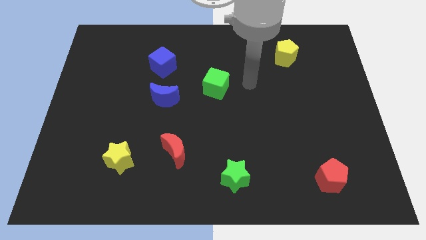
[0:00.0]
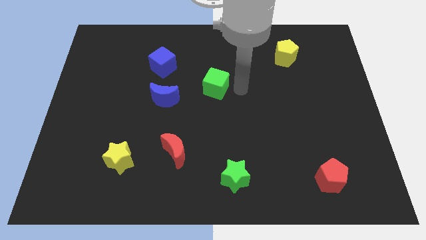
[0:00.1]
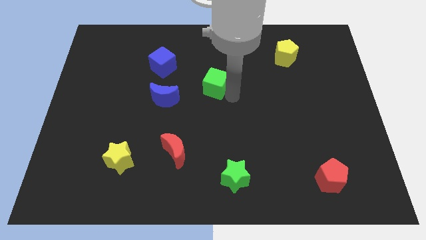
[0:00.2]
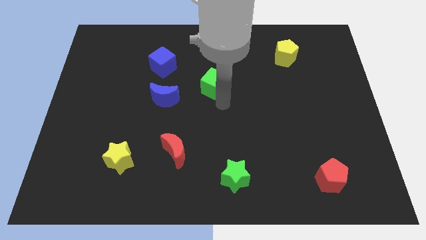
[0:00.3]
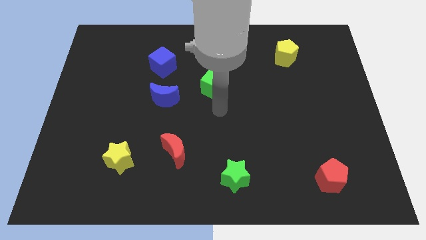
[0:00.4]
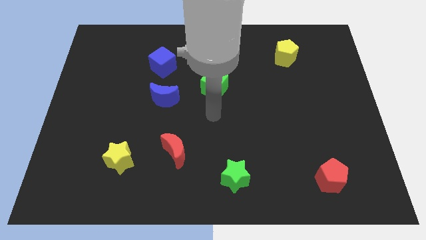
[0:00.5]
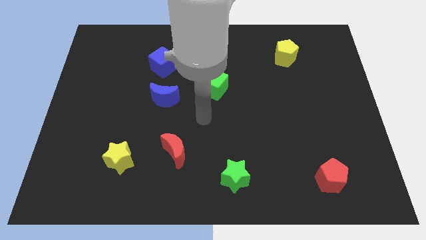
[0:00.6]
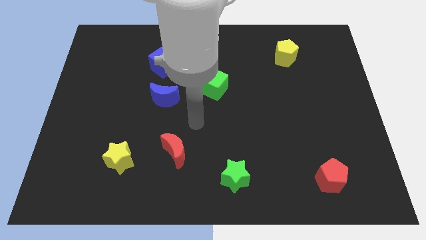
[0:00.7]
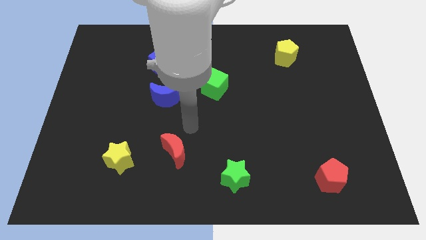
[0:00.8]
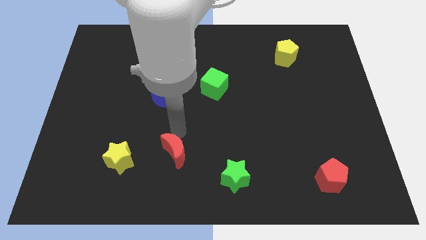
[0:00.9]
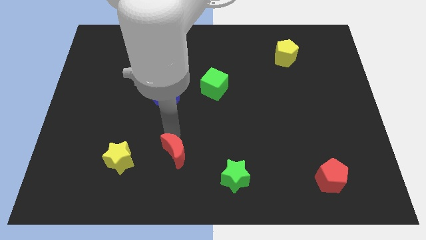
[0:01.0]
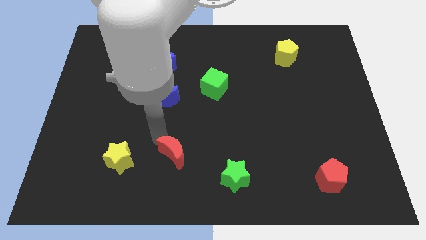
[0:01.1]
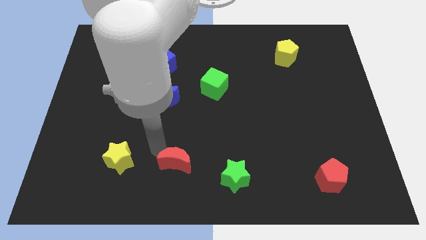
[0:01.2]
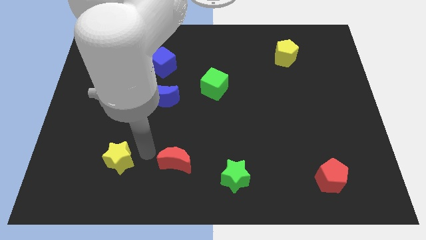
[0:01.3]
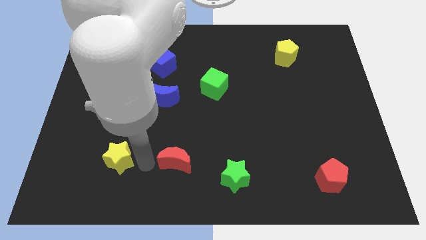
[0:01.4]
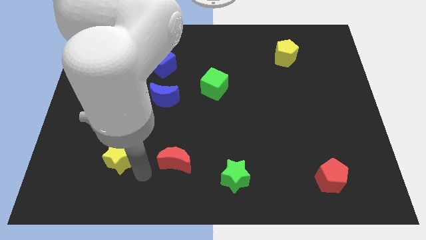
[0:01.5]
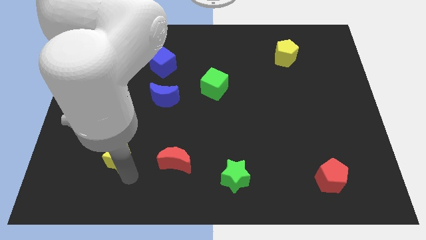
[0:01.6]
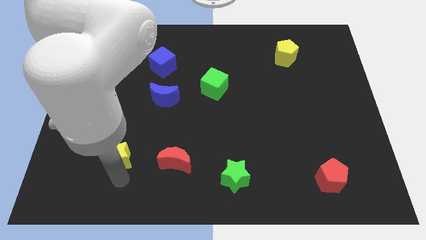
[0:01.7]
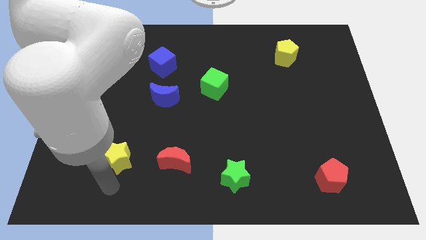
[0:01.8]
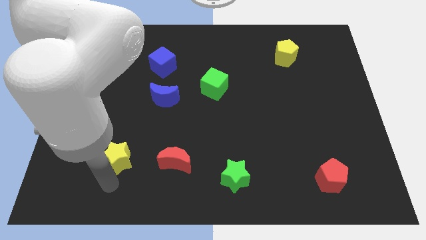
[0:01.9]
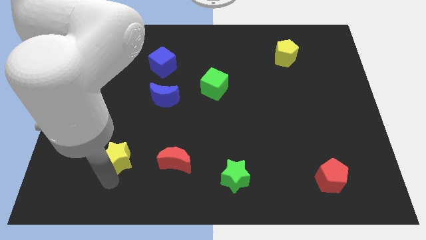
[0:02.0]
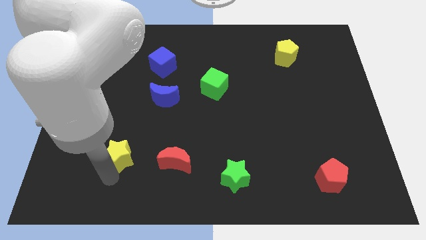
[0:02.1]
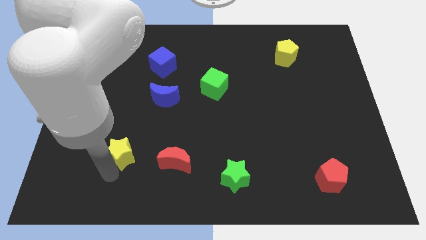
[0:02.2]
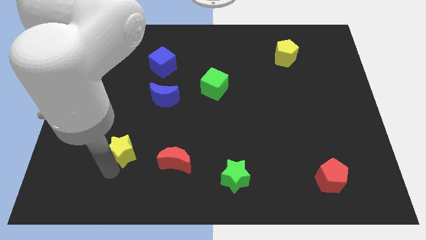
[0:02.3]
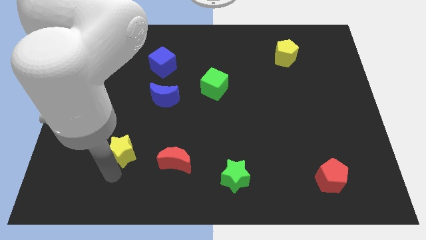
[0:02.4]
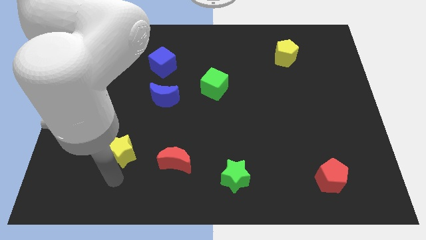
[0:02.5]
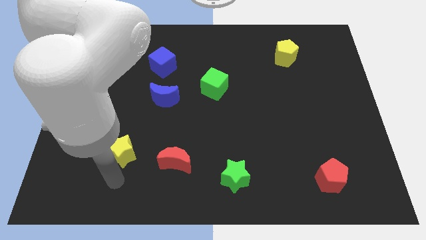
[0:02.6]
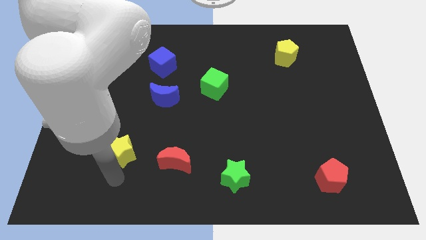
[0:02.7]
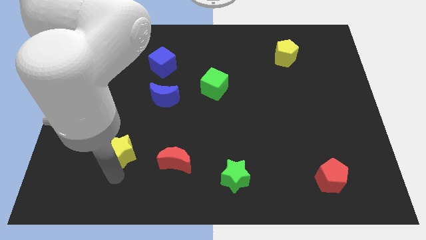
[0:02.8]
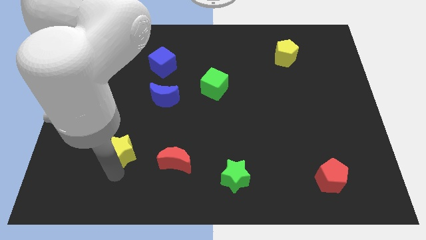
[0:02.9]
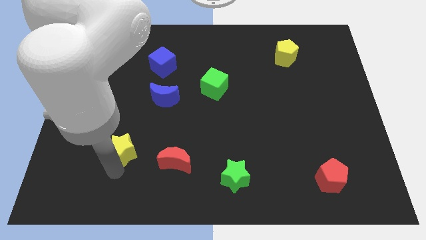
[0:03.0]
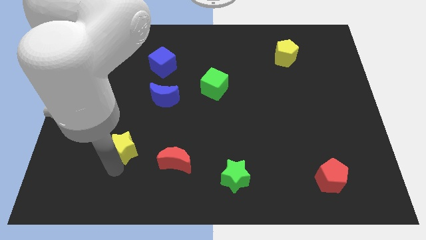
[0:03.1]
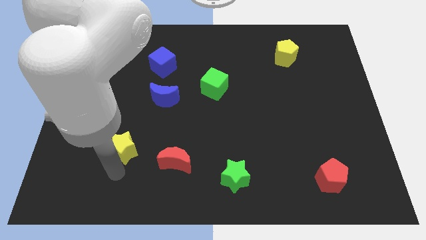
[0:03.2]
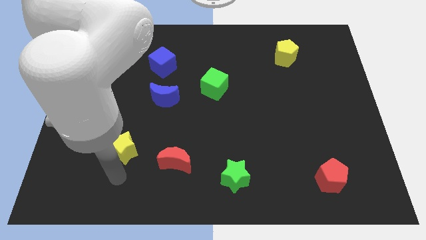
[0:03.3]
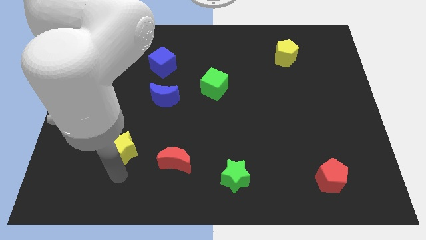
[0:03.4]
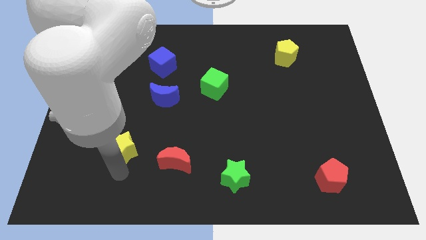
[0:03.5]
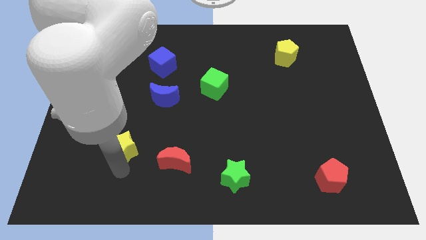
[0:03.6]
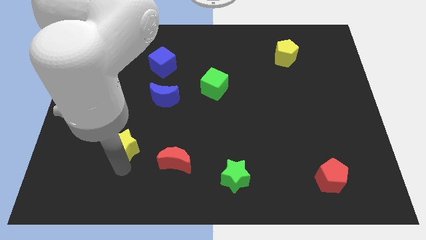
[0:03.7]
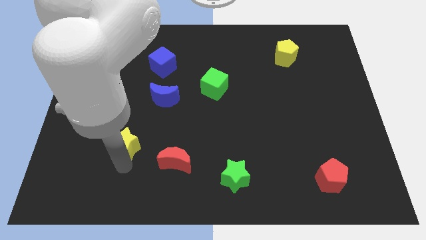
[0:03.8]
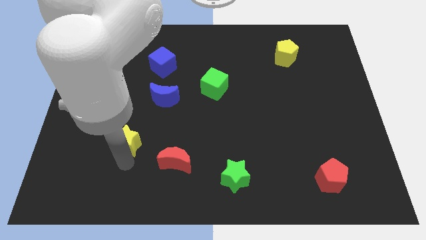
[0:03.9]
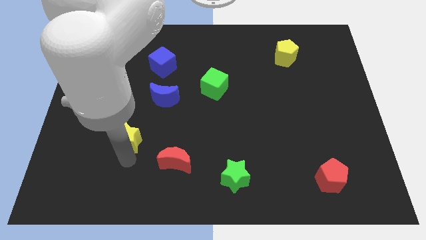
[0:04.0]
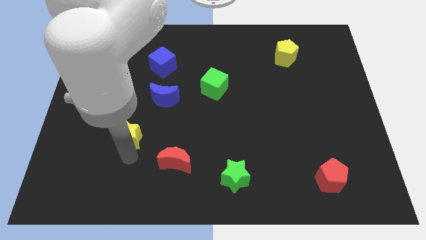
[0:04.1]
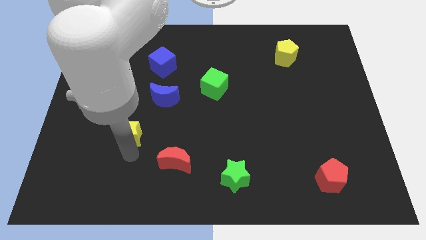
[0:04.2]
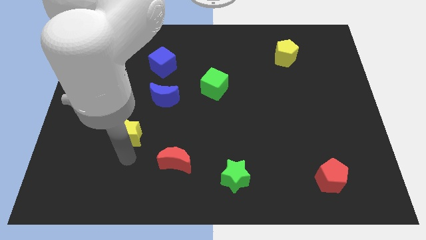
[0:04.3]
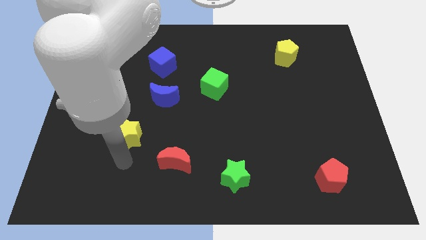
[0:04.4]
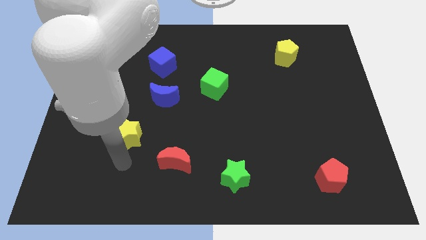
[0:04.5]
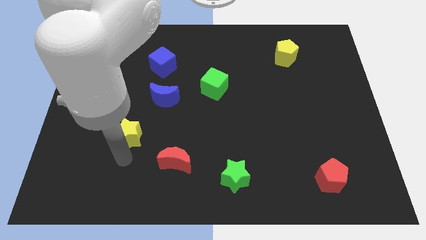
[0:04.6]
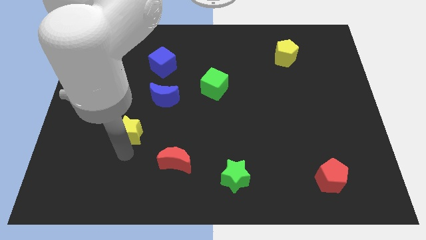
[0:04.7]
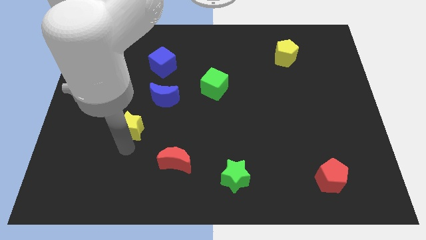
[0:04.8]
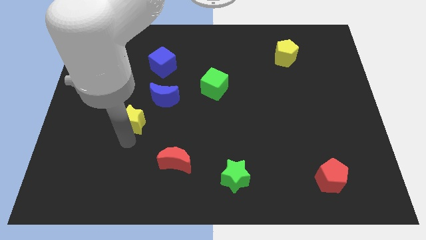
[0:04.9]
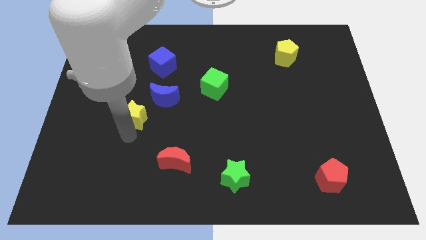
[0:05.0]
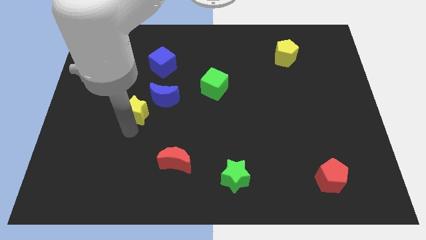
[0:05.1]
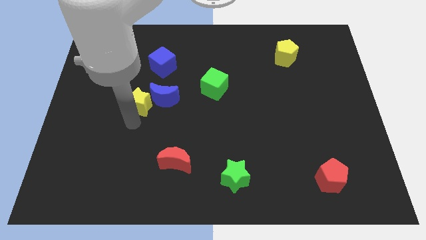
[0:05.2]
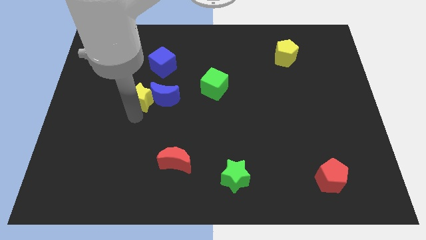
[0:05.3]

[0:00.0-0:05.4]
put the yellow star diagonally up and to the left of the blue moon

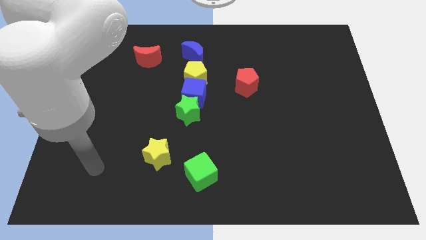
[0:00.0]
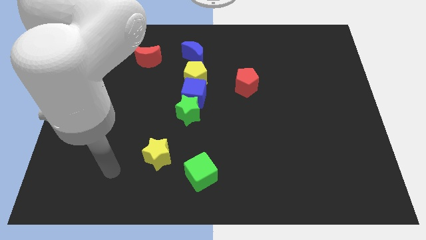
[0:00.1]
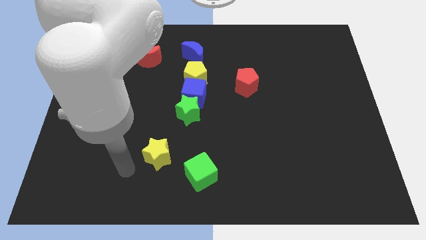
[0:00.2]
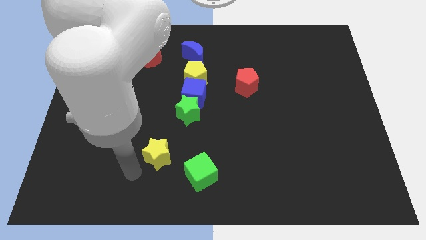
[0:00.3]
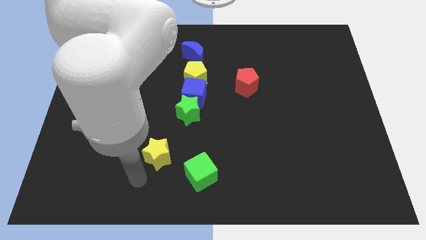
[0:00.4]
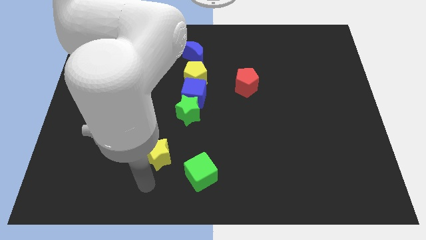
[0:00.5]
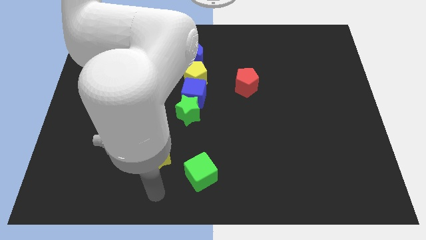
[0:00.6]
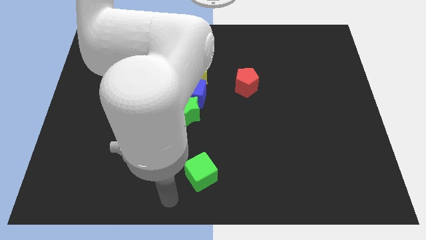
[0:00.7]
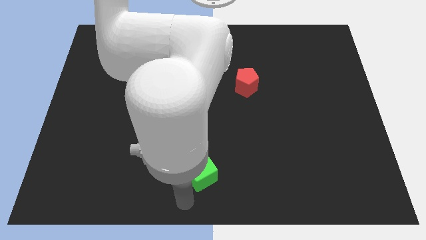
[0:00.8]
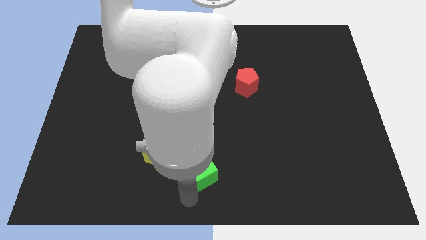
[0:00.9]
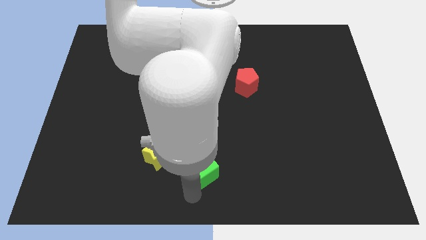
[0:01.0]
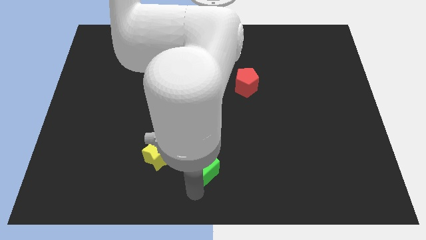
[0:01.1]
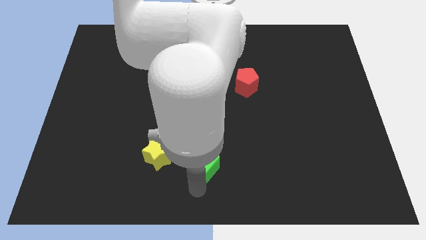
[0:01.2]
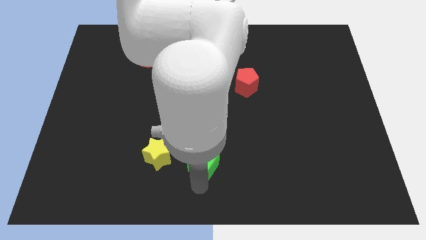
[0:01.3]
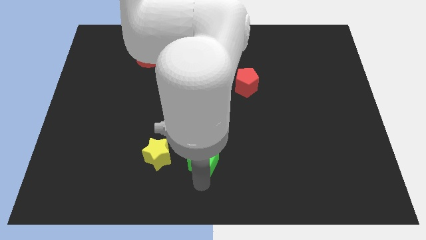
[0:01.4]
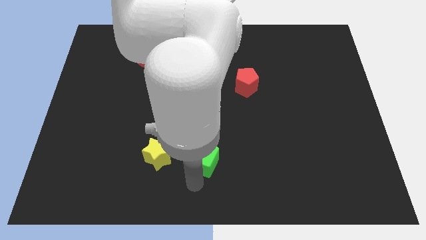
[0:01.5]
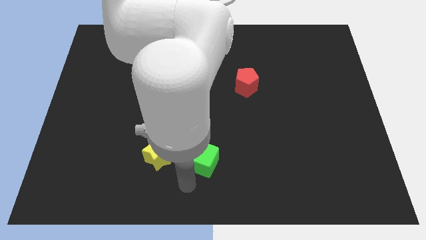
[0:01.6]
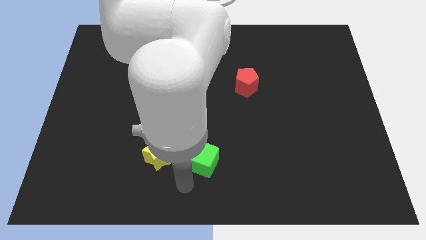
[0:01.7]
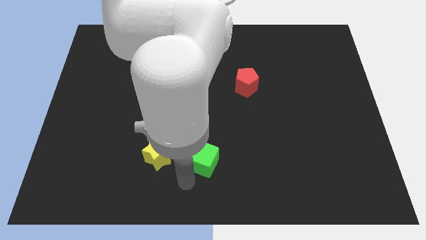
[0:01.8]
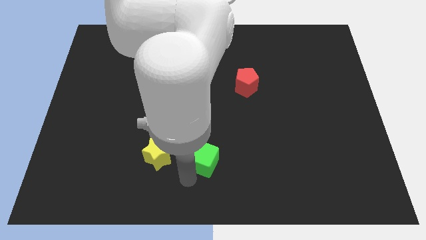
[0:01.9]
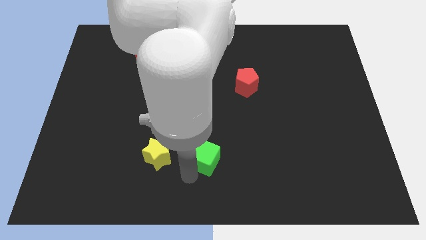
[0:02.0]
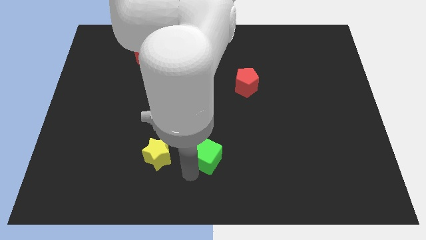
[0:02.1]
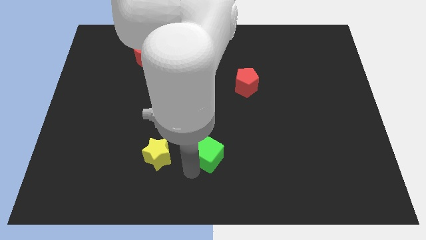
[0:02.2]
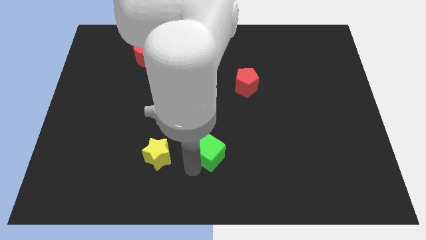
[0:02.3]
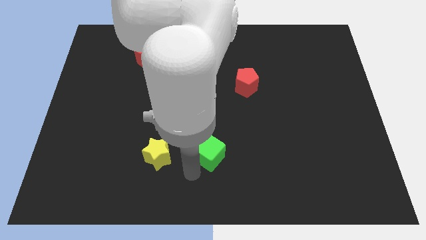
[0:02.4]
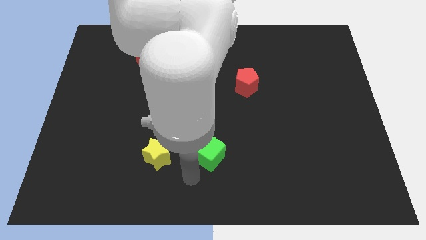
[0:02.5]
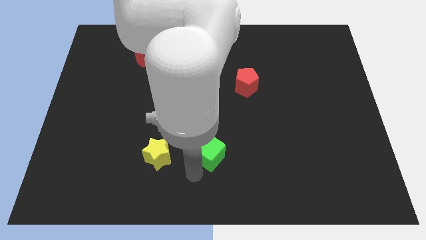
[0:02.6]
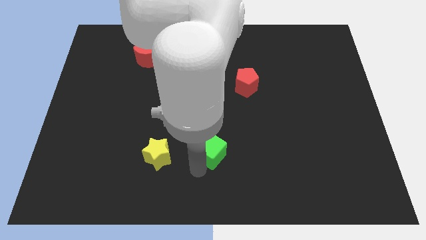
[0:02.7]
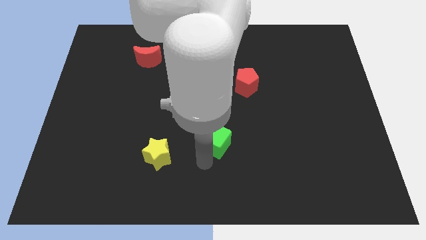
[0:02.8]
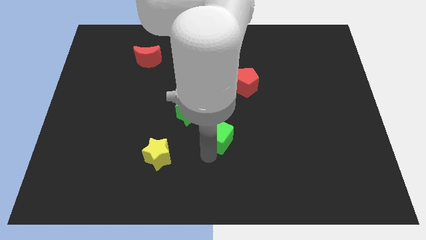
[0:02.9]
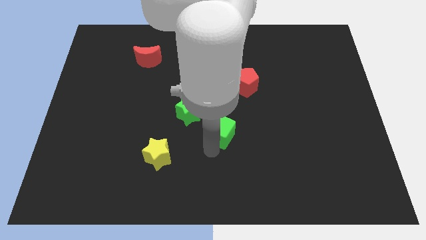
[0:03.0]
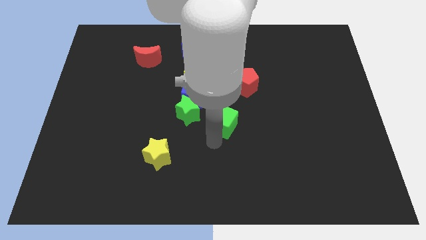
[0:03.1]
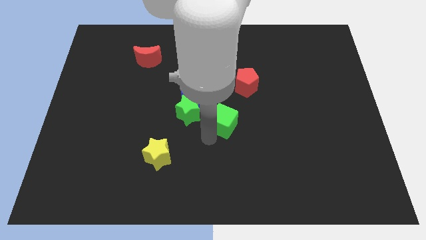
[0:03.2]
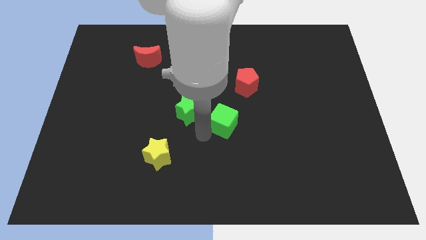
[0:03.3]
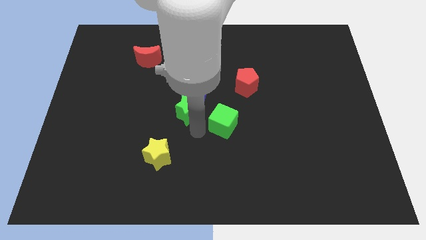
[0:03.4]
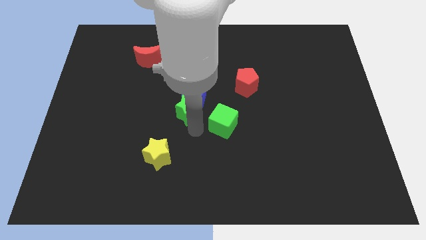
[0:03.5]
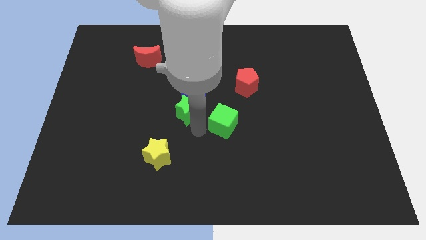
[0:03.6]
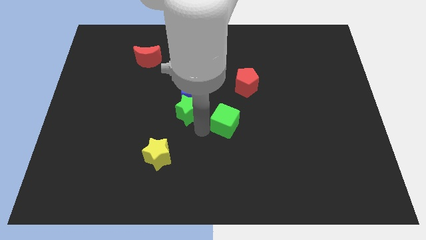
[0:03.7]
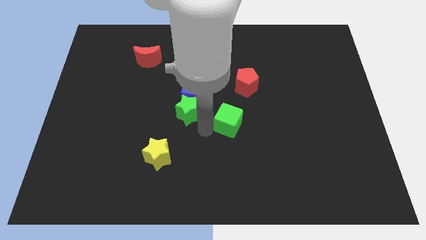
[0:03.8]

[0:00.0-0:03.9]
push the green cube to the bottom of the red pentagon
